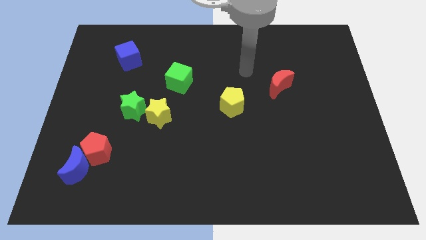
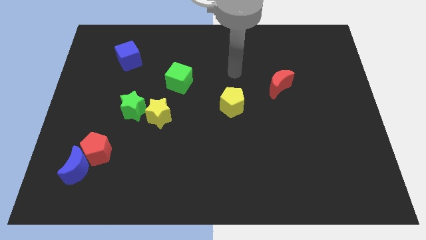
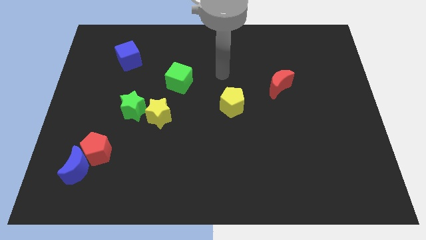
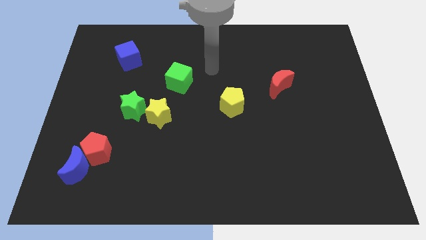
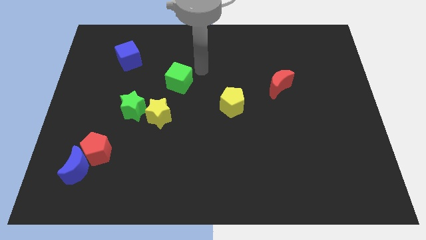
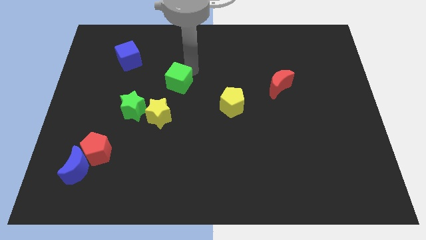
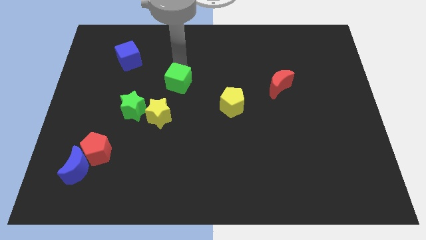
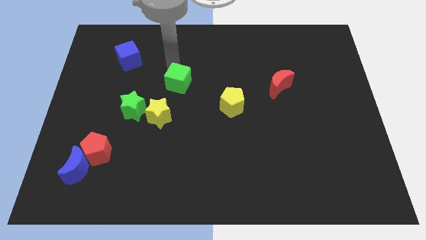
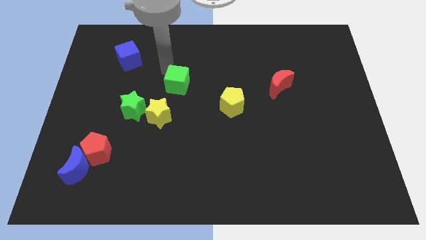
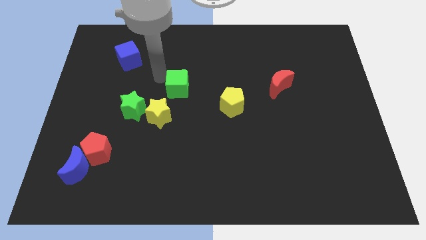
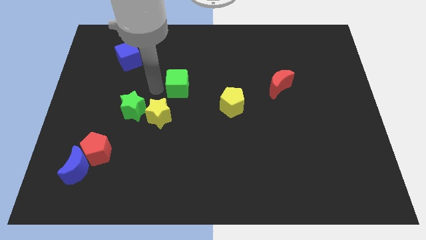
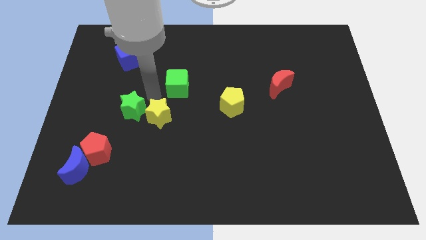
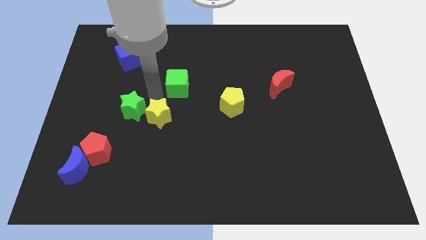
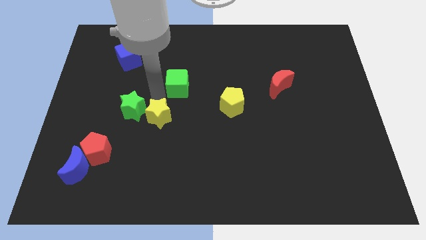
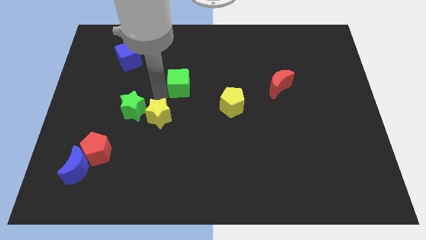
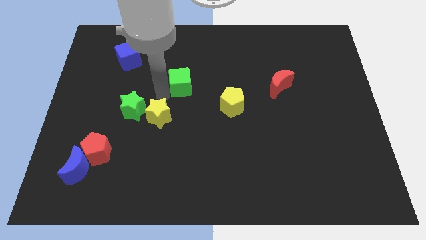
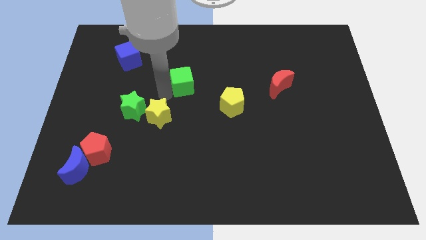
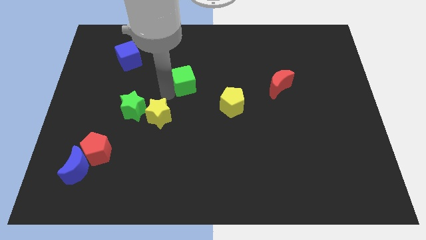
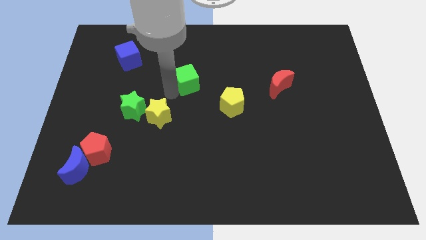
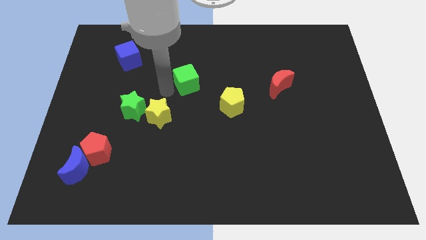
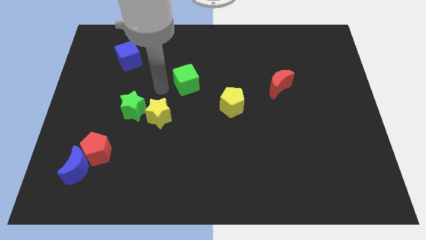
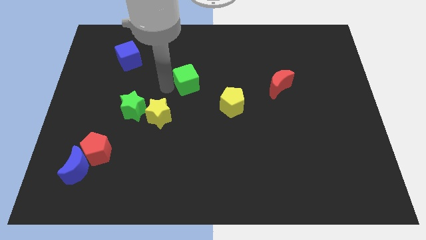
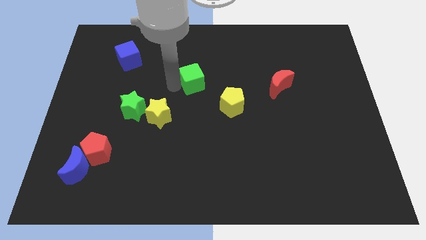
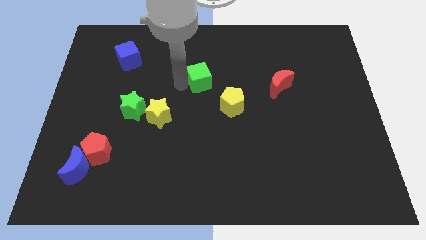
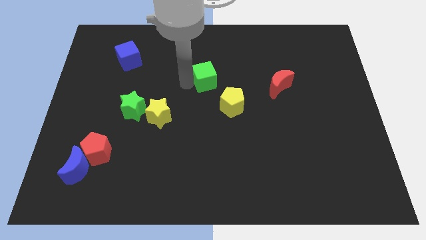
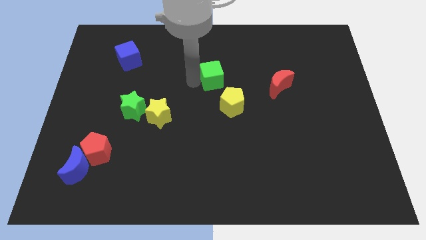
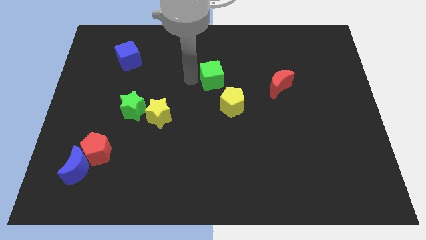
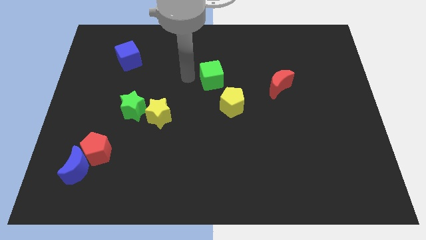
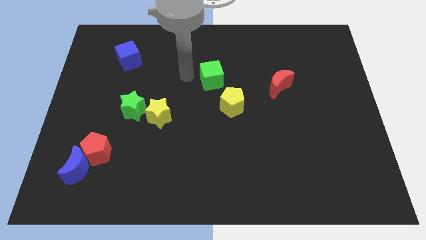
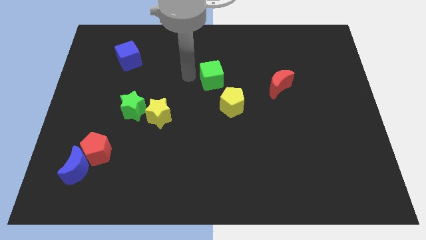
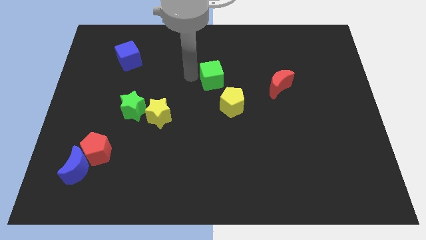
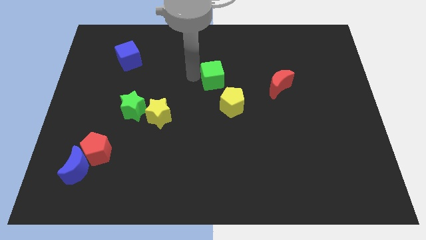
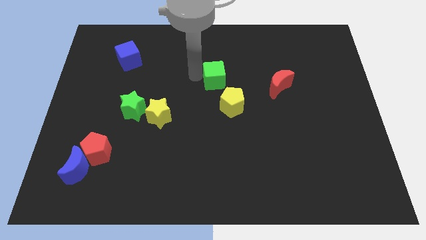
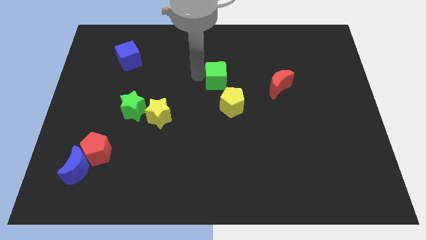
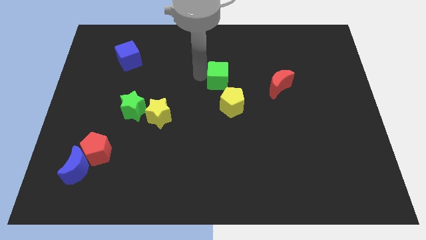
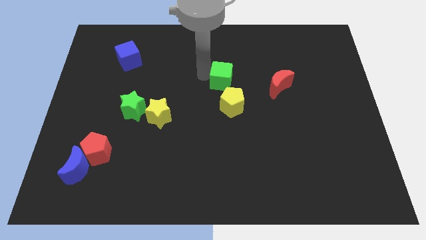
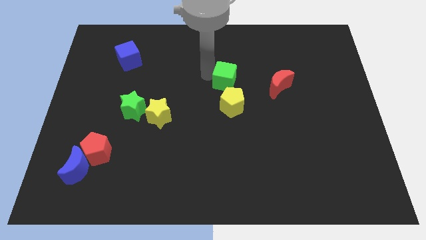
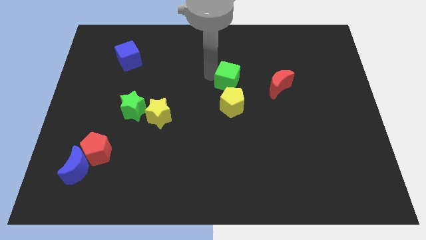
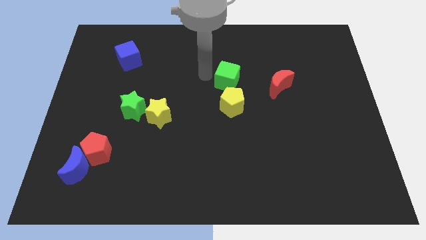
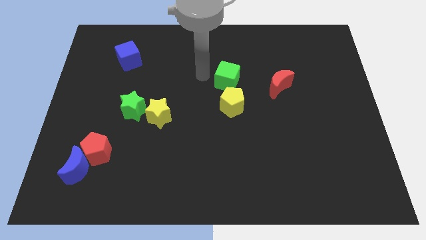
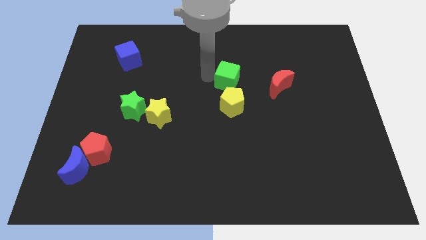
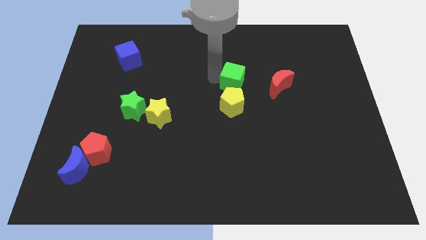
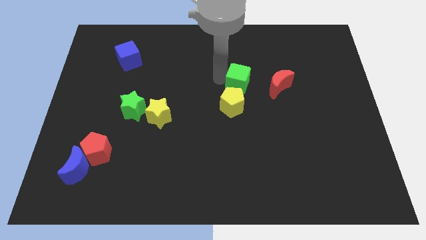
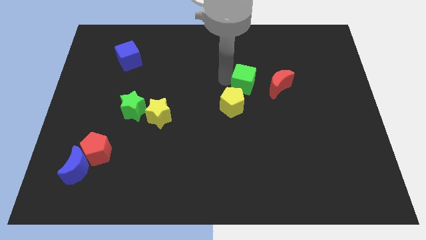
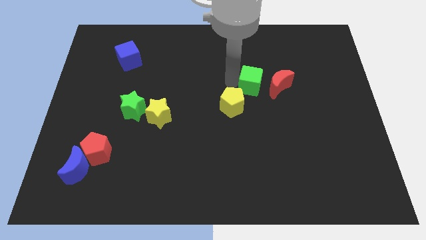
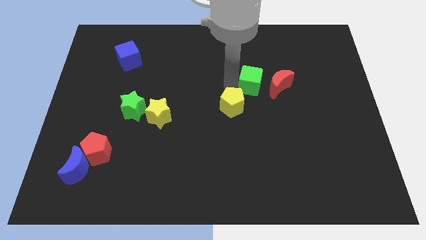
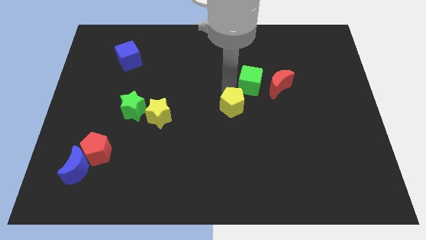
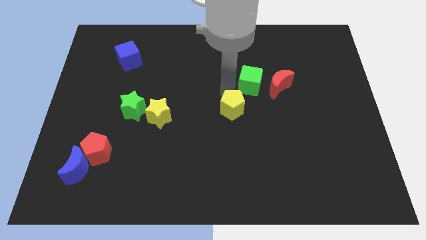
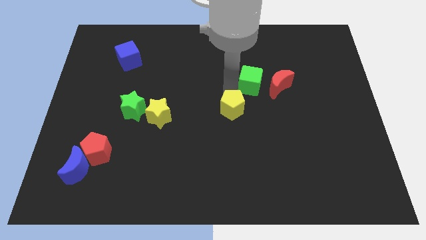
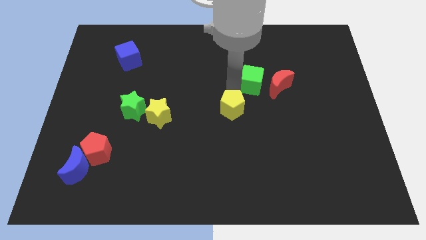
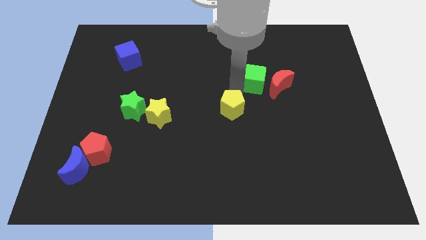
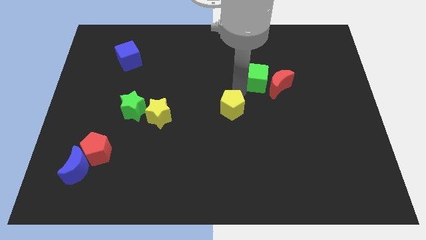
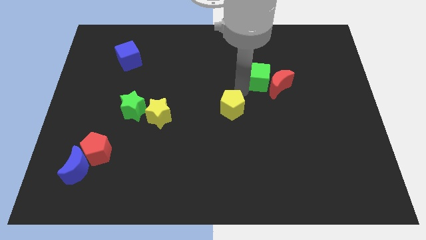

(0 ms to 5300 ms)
move the green cube to the right

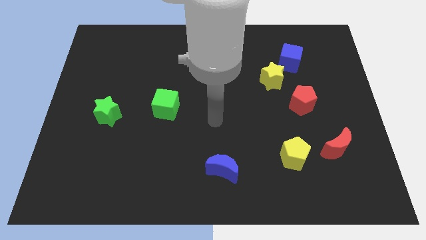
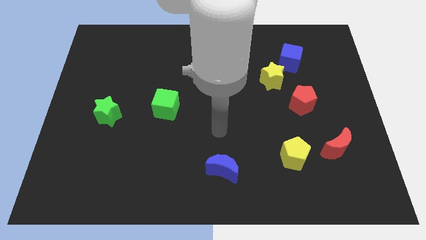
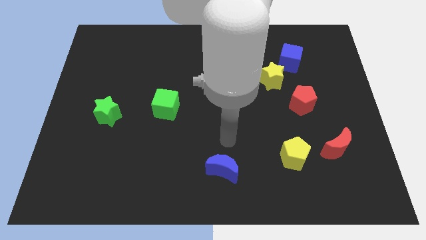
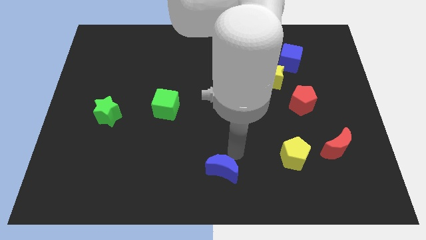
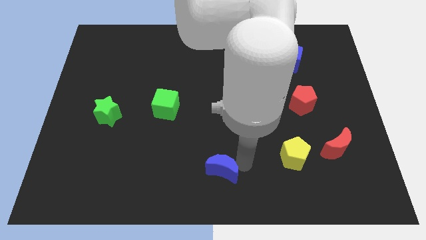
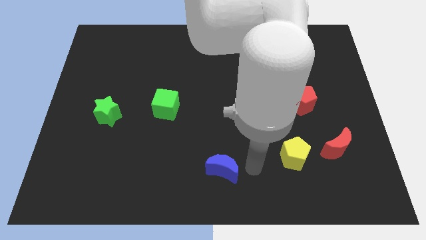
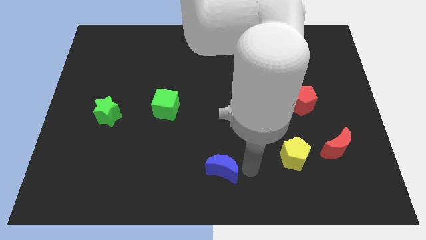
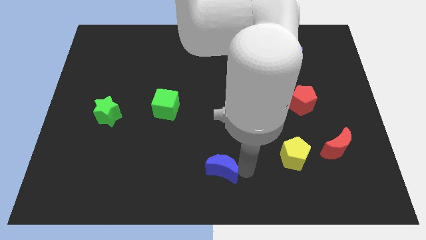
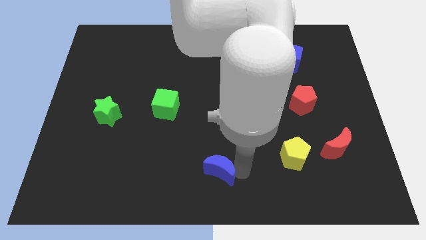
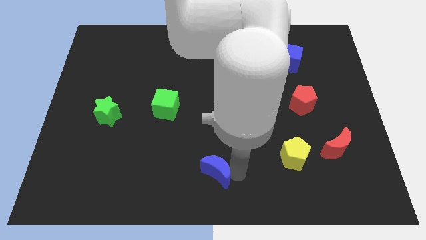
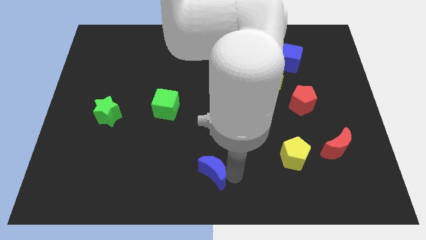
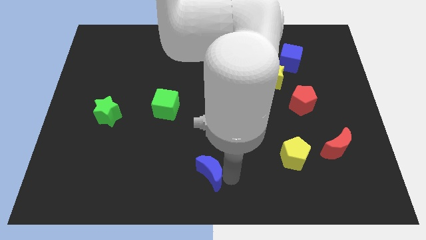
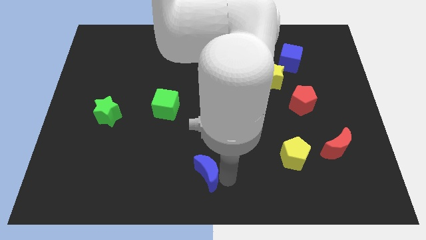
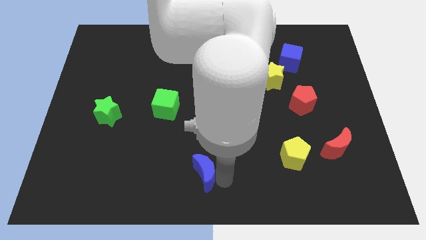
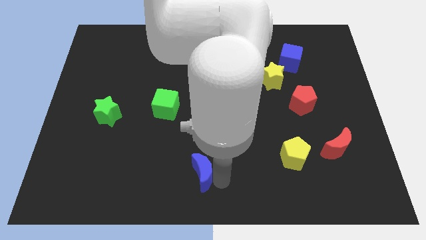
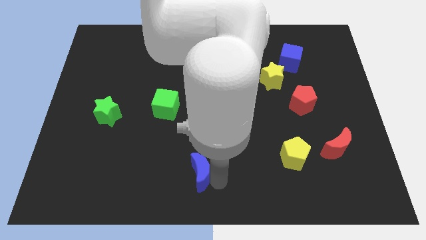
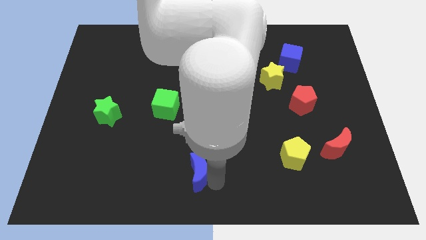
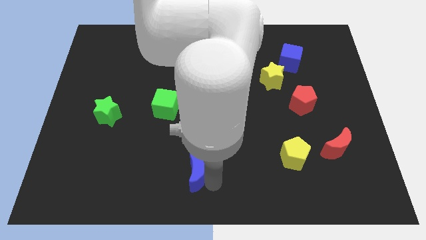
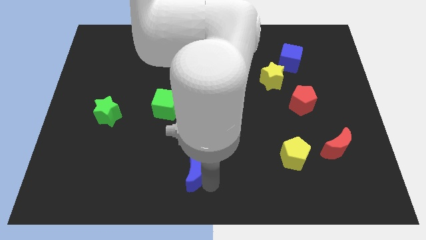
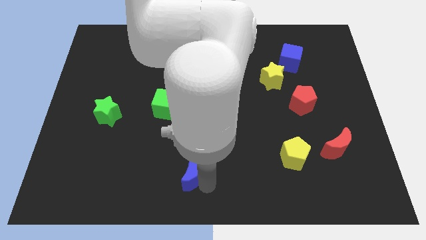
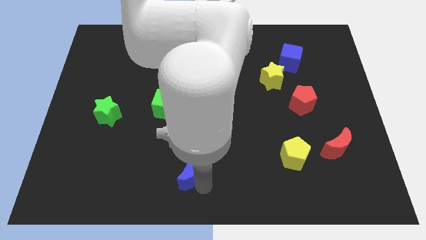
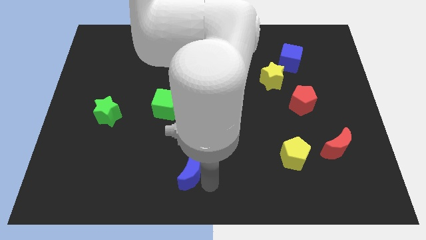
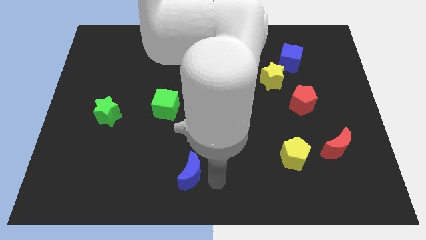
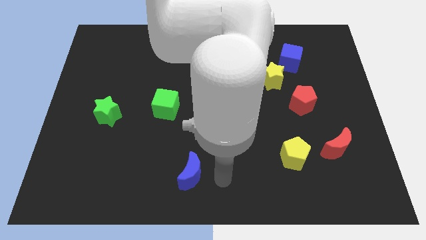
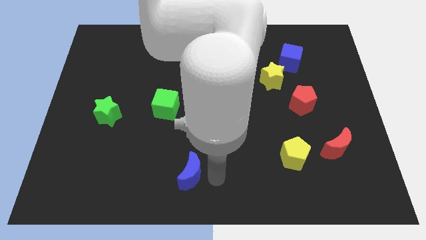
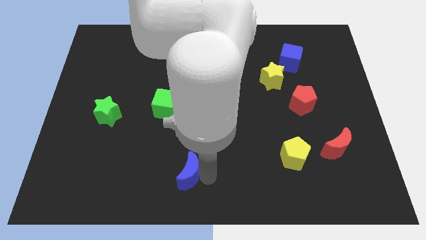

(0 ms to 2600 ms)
slightly move the blue moon left
